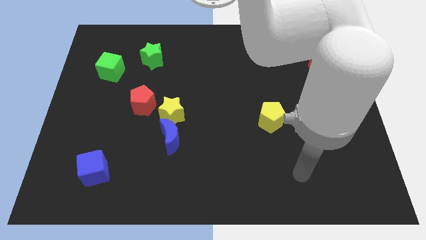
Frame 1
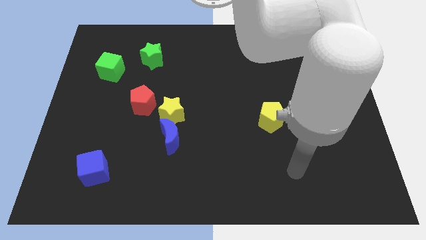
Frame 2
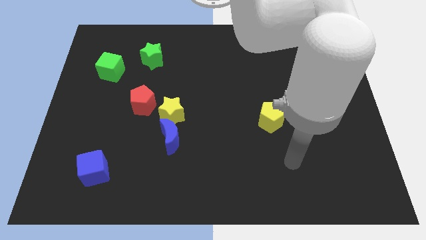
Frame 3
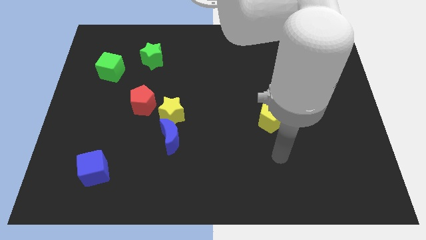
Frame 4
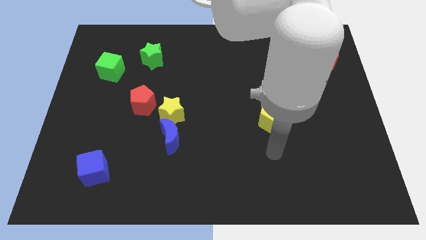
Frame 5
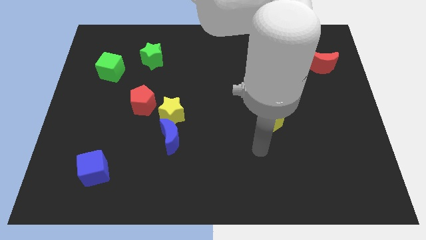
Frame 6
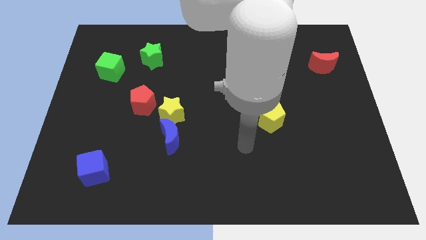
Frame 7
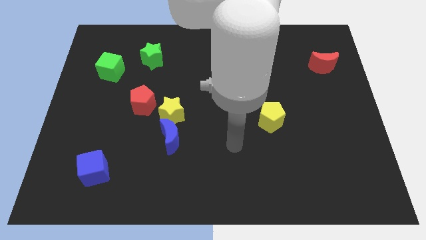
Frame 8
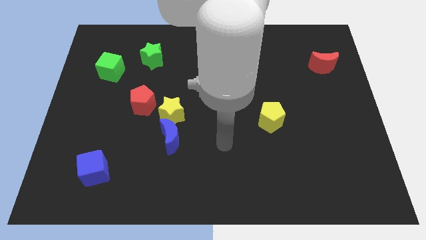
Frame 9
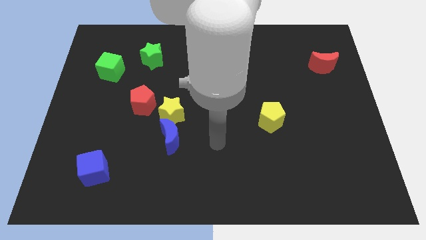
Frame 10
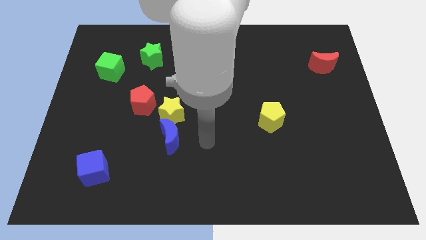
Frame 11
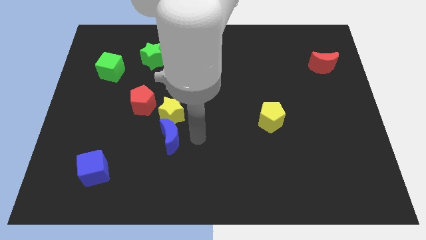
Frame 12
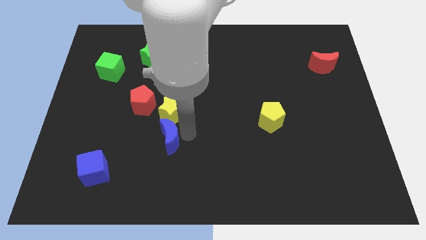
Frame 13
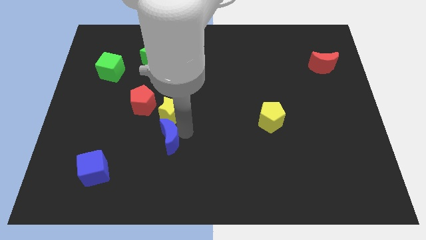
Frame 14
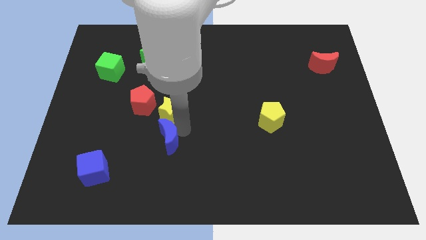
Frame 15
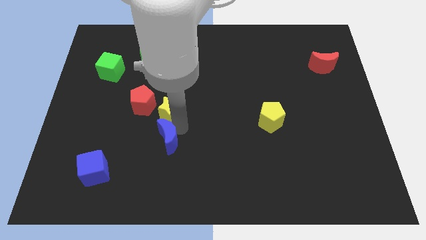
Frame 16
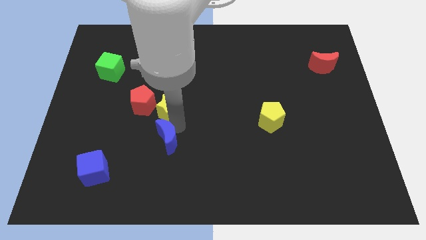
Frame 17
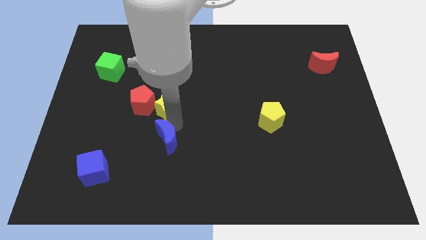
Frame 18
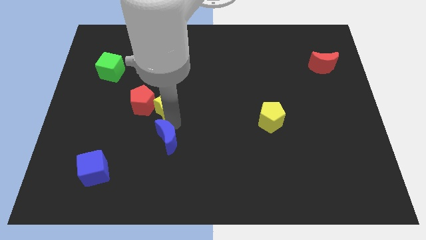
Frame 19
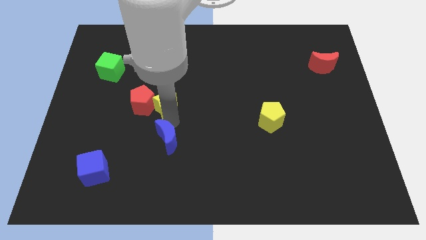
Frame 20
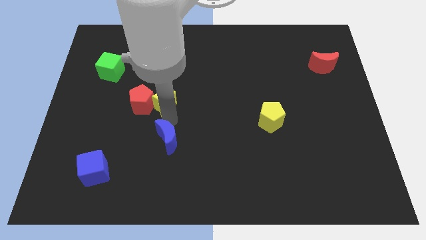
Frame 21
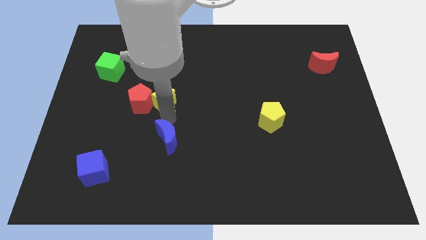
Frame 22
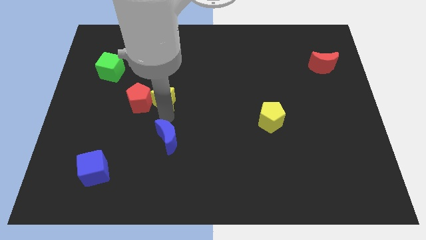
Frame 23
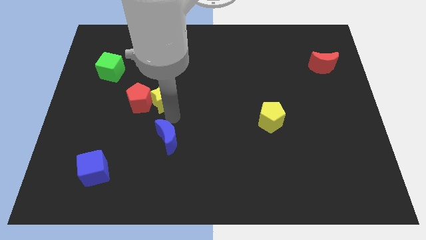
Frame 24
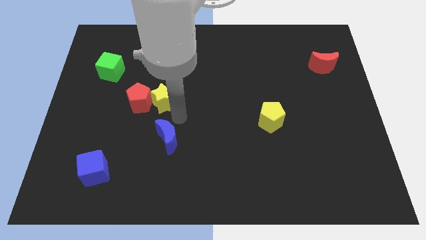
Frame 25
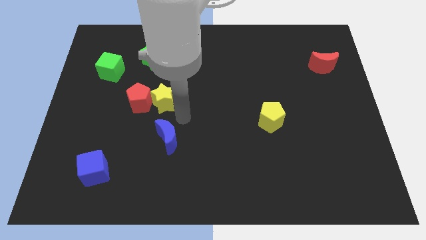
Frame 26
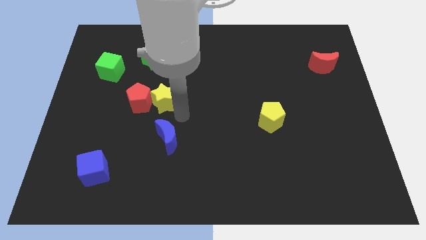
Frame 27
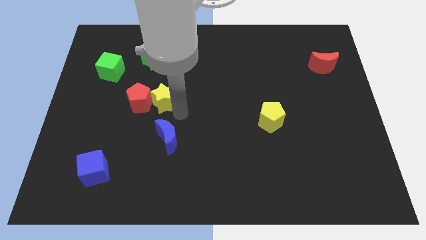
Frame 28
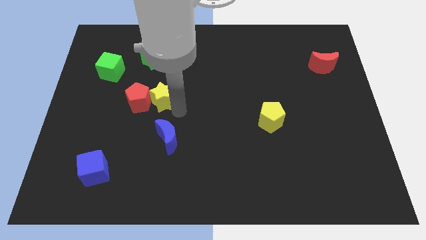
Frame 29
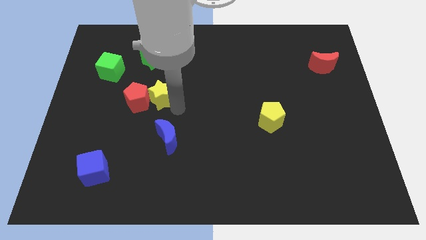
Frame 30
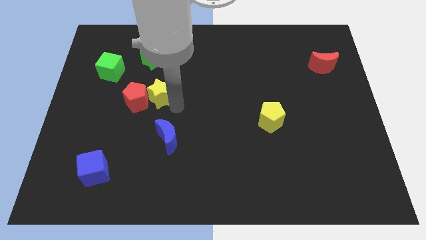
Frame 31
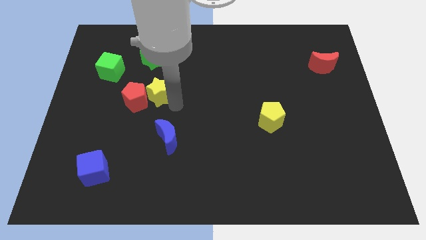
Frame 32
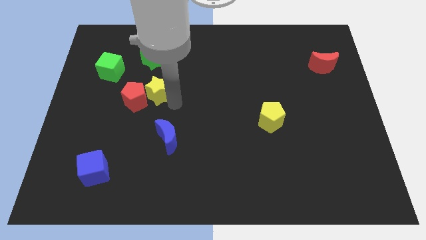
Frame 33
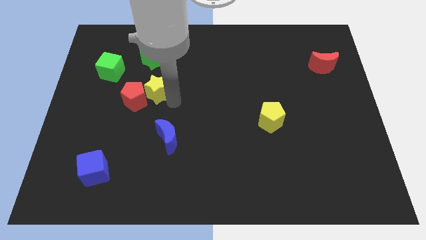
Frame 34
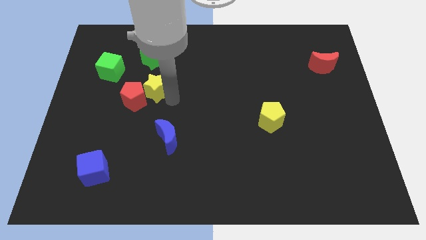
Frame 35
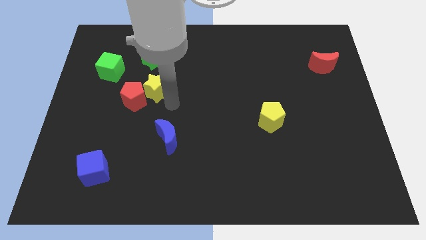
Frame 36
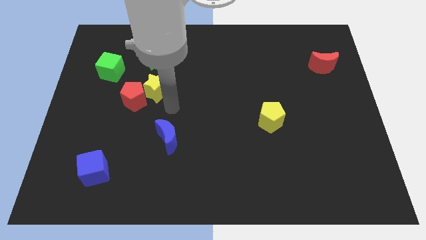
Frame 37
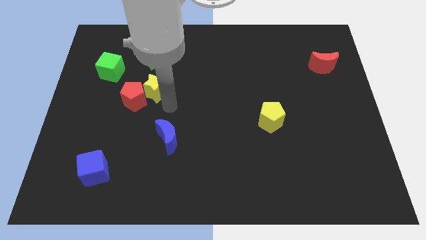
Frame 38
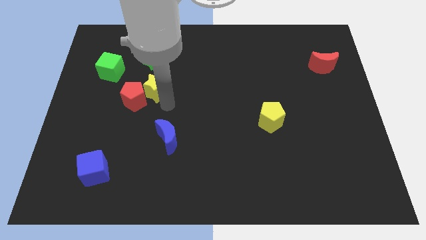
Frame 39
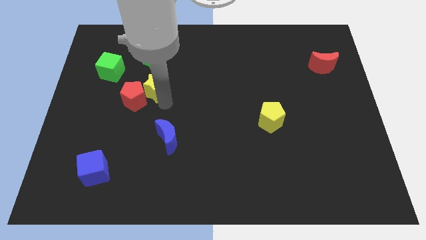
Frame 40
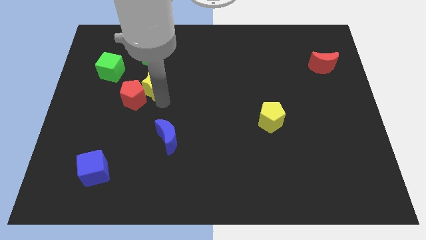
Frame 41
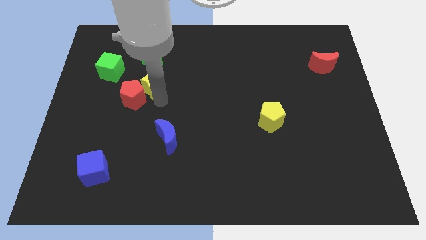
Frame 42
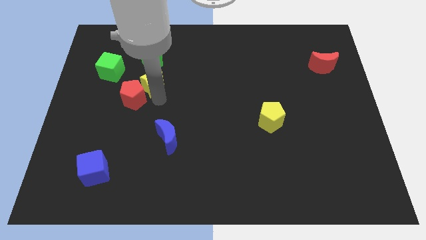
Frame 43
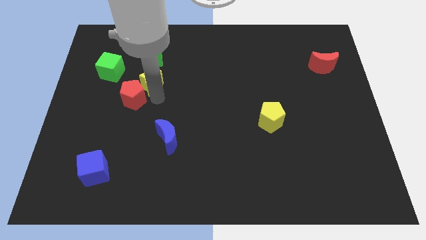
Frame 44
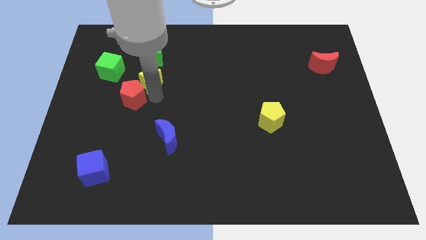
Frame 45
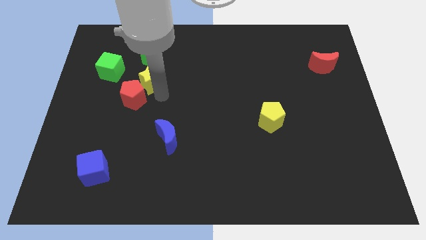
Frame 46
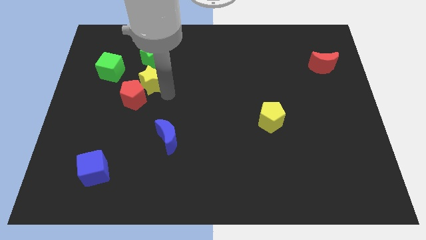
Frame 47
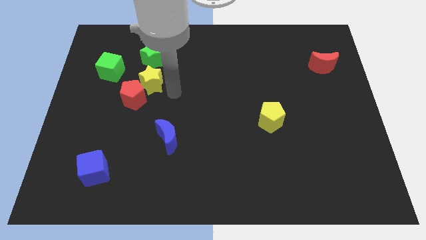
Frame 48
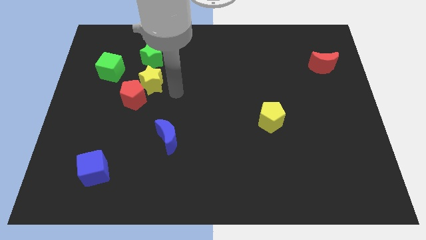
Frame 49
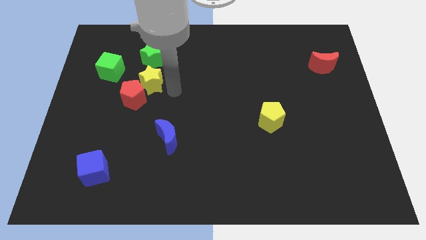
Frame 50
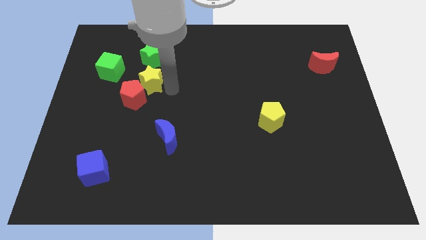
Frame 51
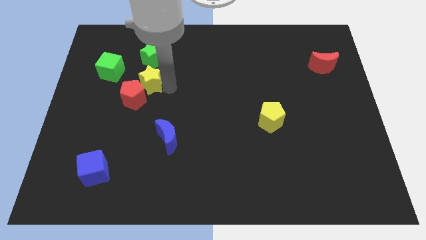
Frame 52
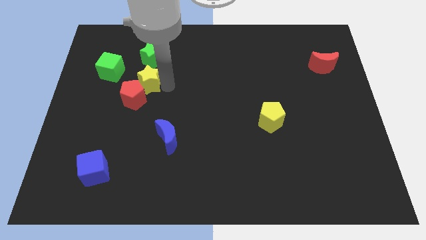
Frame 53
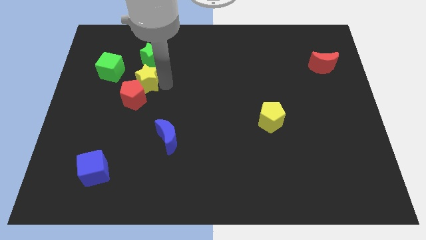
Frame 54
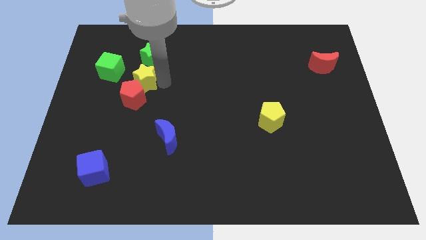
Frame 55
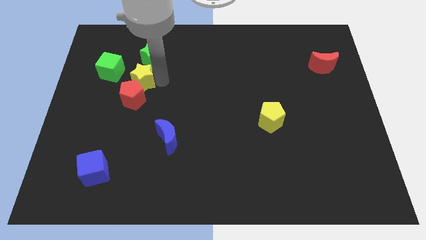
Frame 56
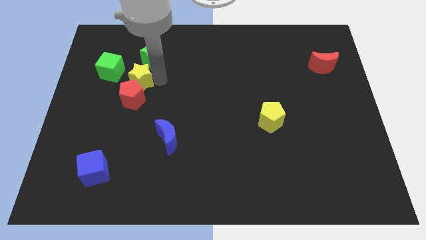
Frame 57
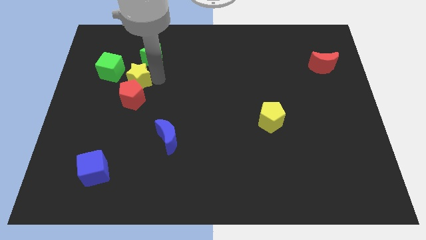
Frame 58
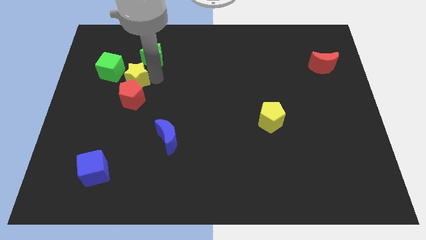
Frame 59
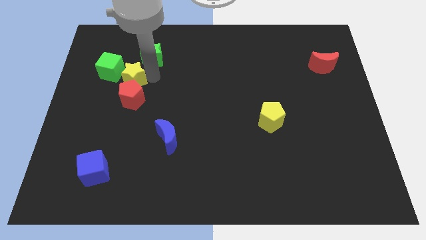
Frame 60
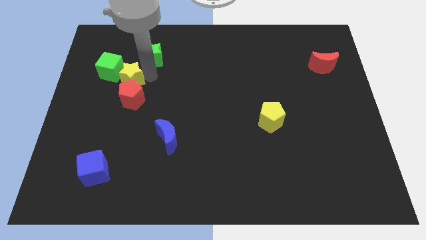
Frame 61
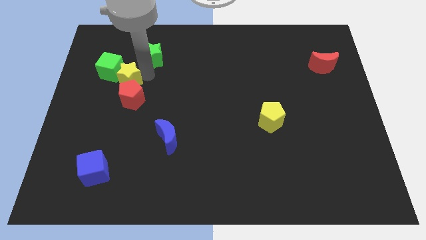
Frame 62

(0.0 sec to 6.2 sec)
slide the yellow star to the green cube

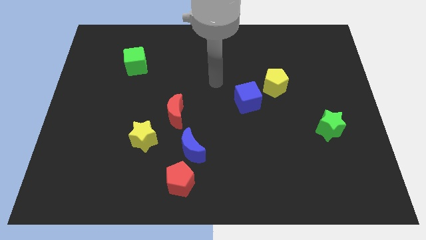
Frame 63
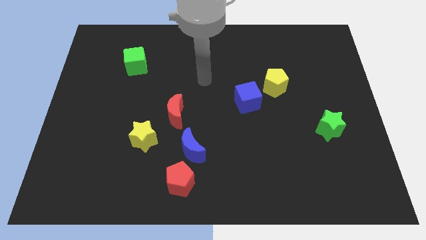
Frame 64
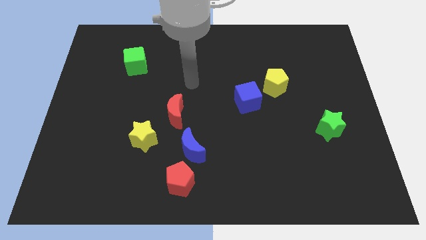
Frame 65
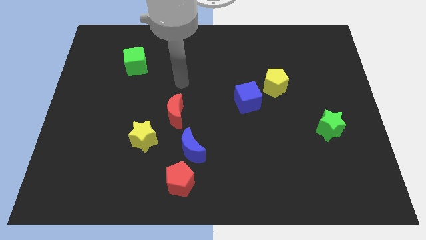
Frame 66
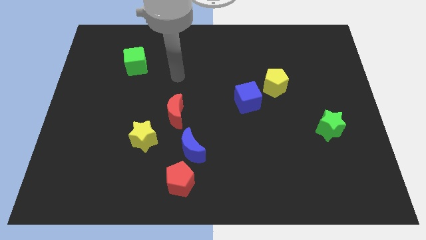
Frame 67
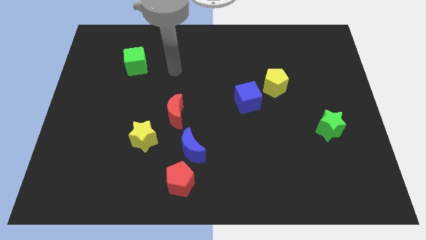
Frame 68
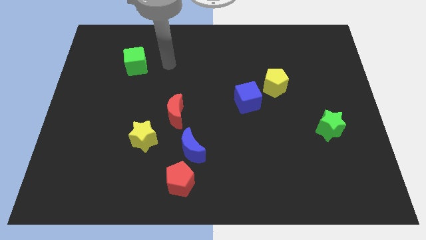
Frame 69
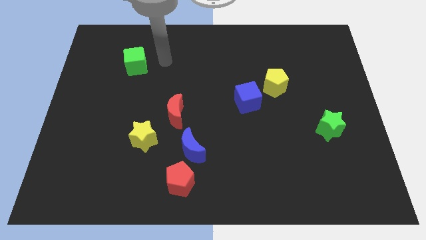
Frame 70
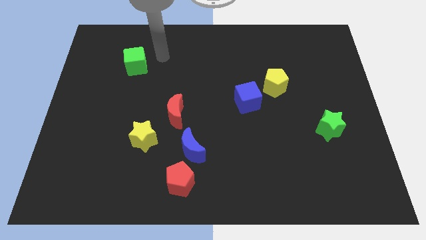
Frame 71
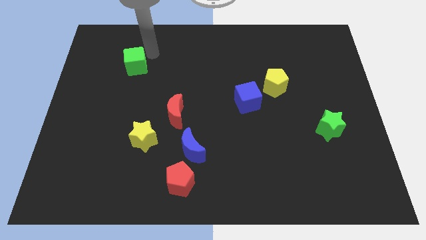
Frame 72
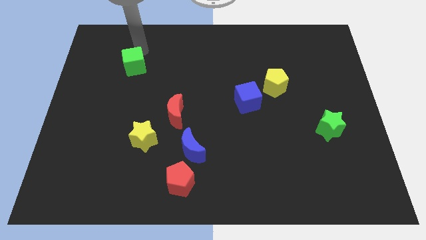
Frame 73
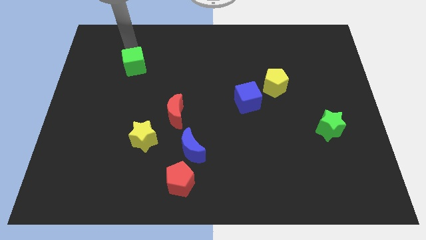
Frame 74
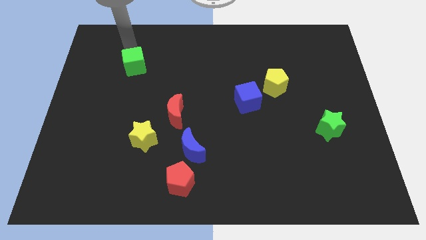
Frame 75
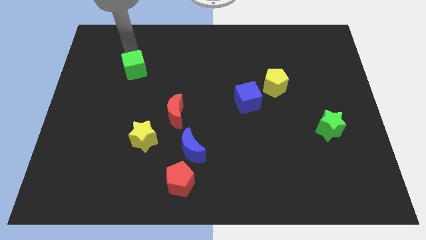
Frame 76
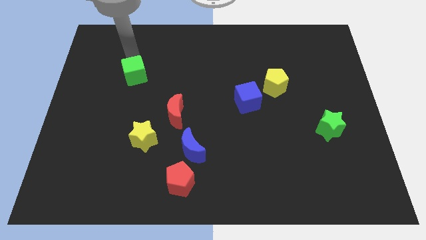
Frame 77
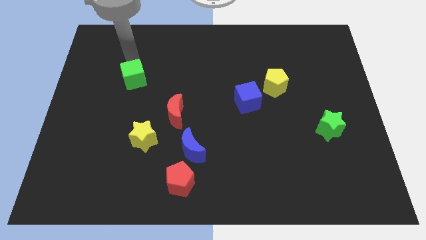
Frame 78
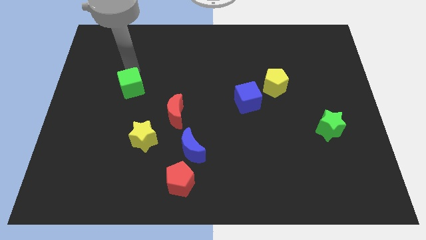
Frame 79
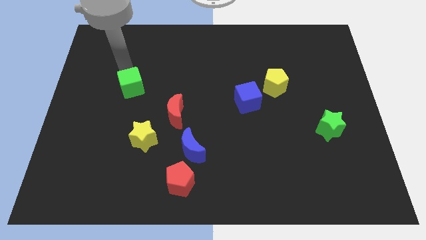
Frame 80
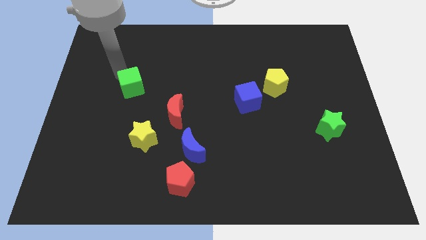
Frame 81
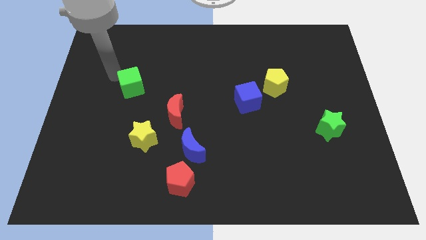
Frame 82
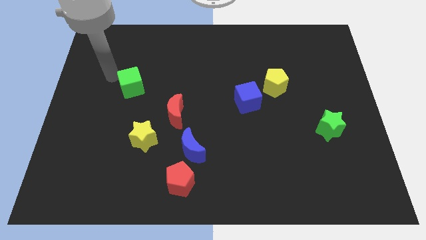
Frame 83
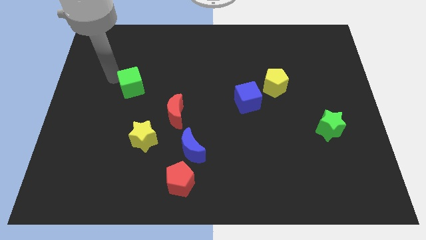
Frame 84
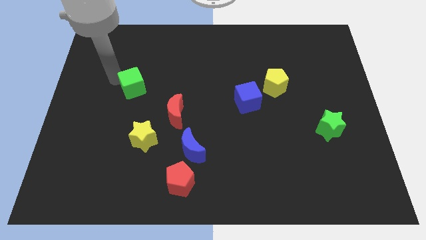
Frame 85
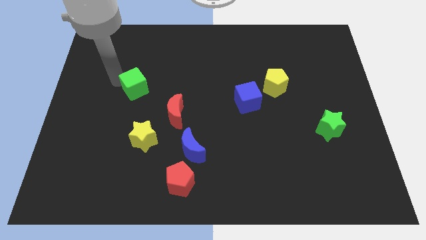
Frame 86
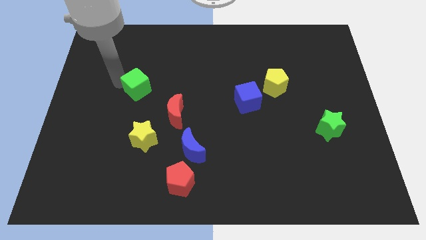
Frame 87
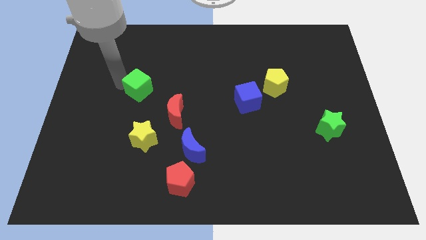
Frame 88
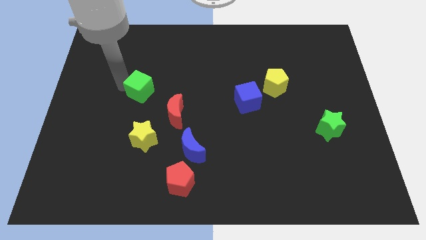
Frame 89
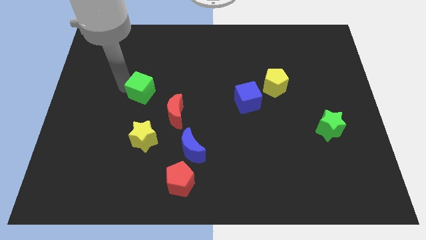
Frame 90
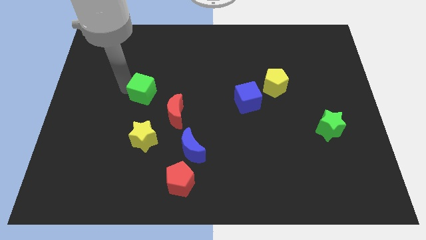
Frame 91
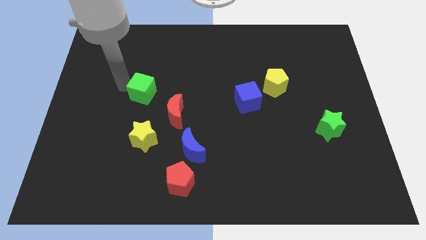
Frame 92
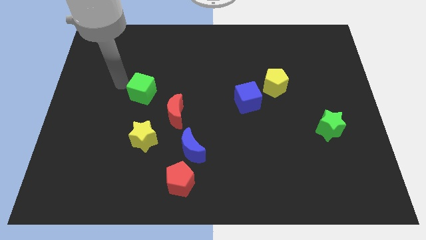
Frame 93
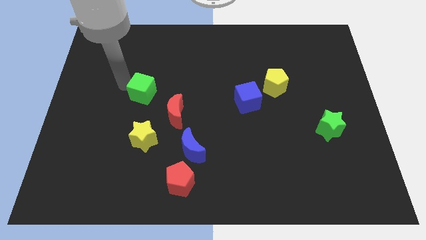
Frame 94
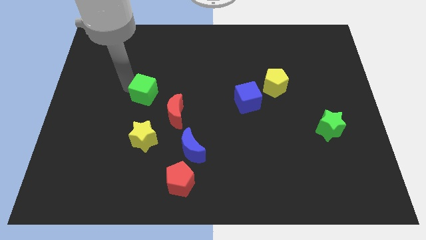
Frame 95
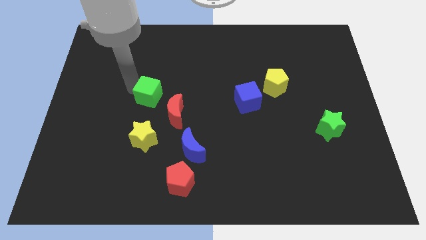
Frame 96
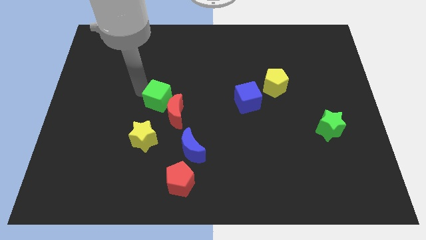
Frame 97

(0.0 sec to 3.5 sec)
move the green cube next to the red moon
